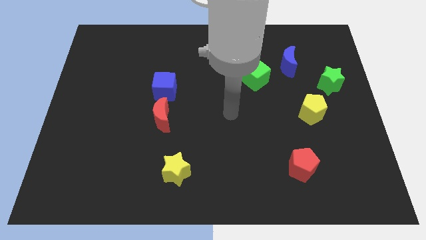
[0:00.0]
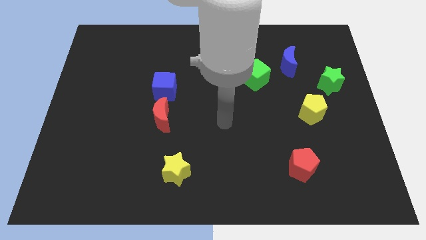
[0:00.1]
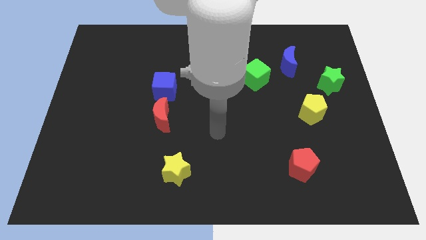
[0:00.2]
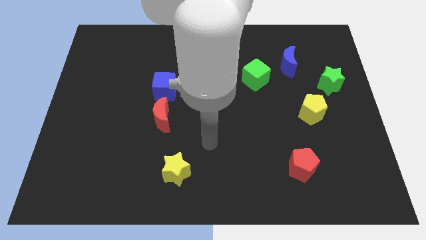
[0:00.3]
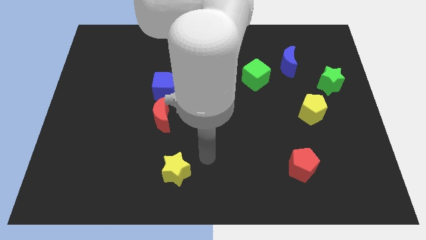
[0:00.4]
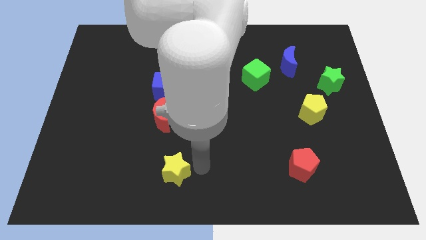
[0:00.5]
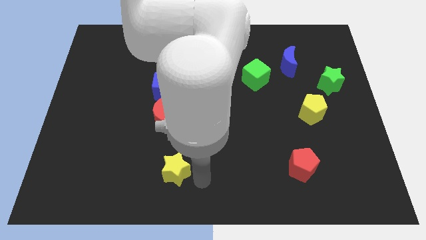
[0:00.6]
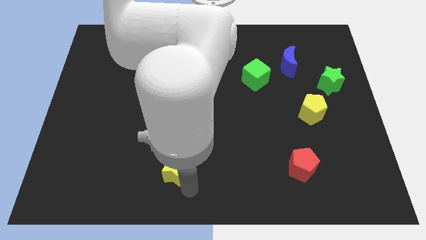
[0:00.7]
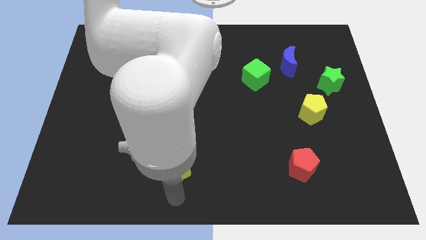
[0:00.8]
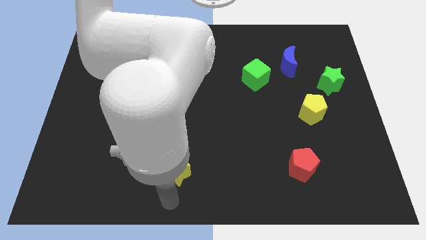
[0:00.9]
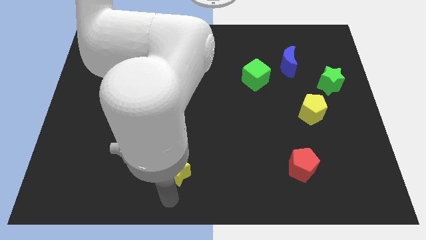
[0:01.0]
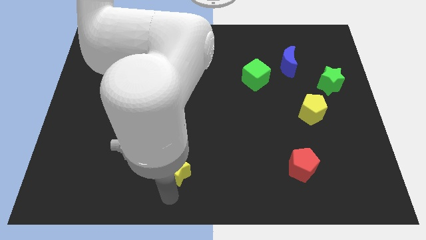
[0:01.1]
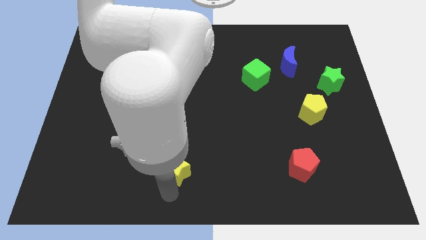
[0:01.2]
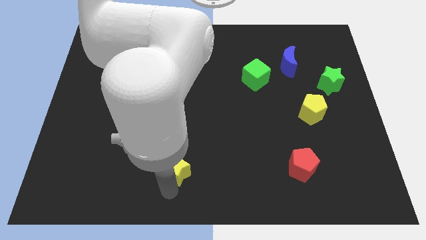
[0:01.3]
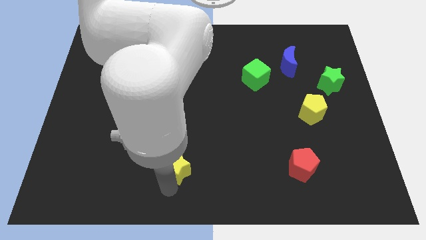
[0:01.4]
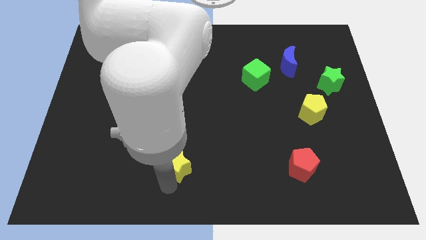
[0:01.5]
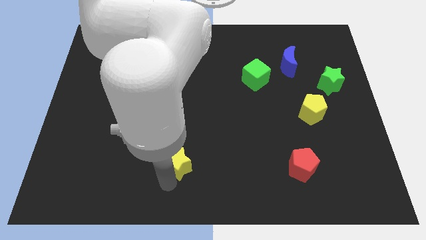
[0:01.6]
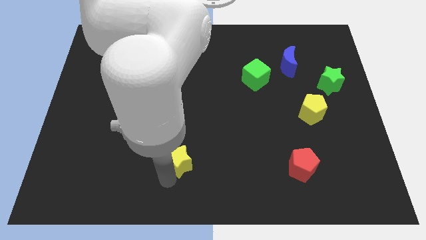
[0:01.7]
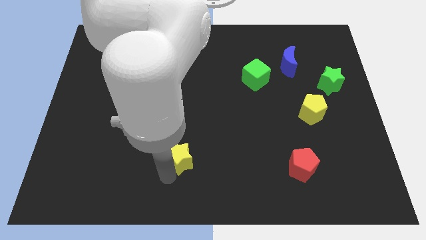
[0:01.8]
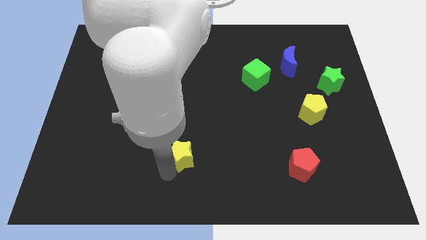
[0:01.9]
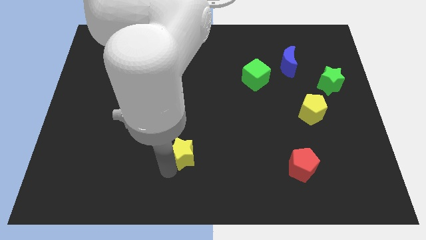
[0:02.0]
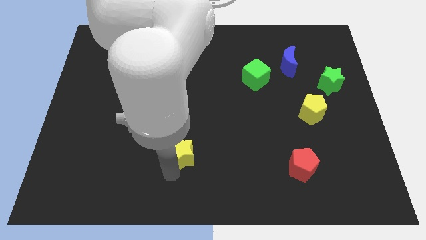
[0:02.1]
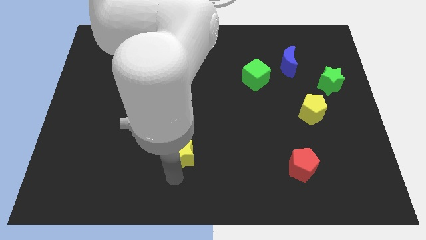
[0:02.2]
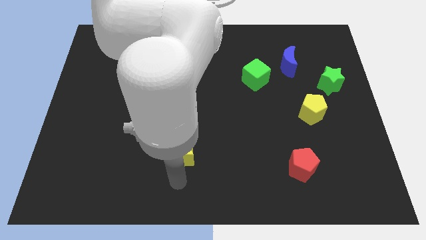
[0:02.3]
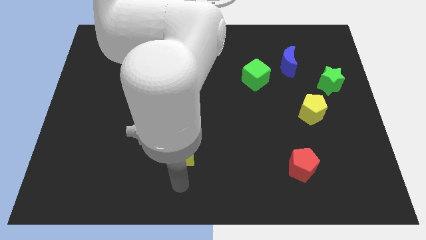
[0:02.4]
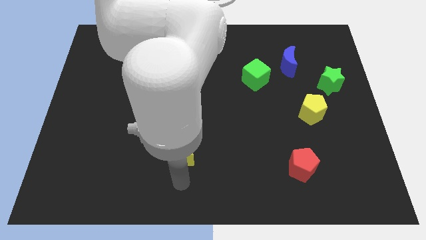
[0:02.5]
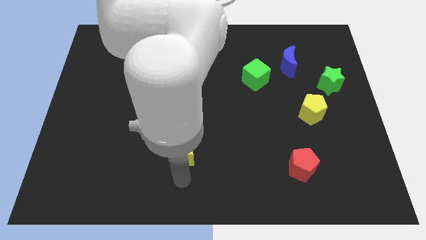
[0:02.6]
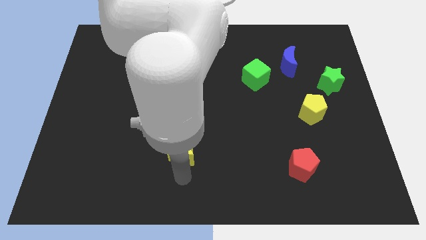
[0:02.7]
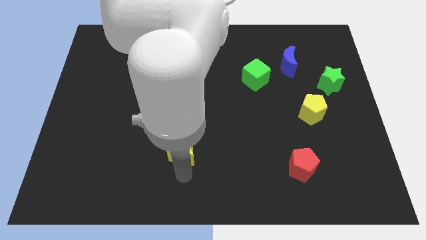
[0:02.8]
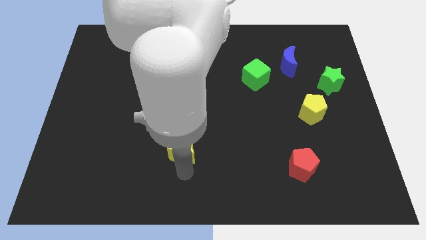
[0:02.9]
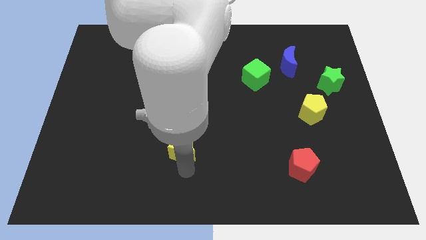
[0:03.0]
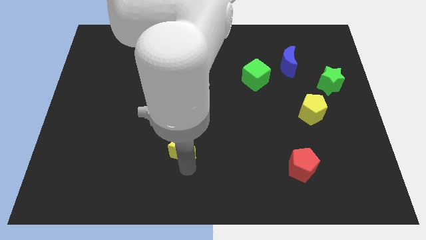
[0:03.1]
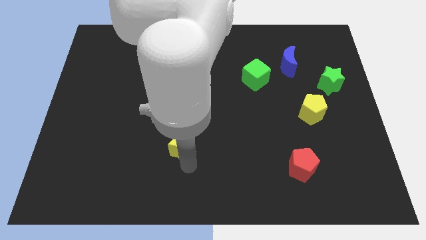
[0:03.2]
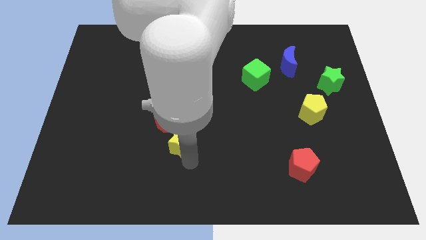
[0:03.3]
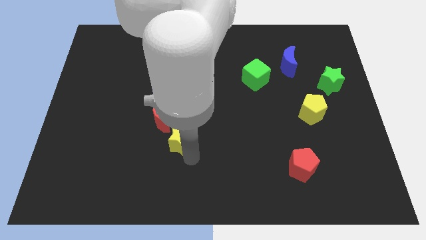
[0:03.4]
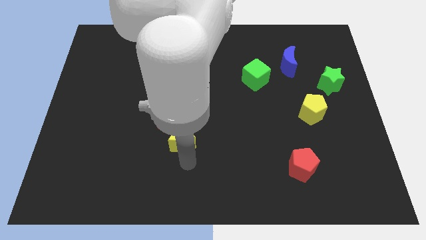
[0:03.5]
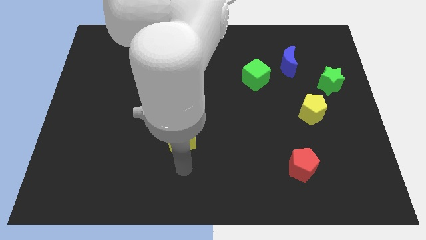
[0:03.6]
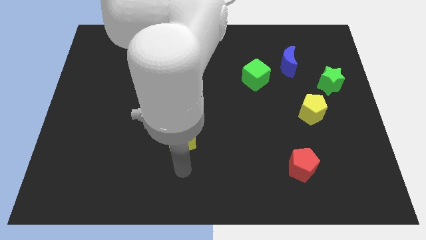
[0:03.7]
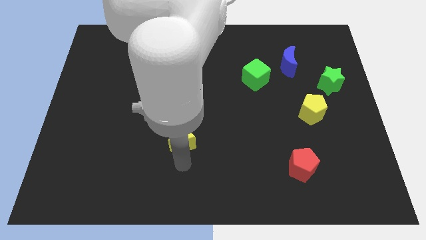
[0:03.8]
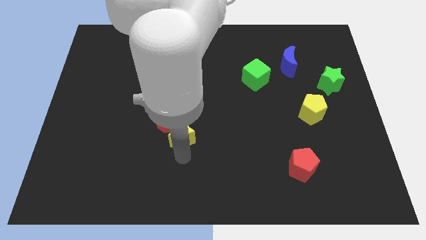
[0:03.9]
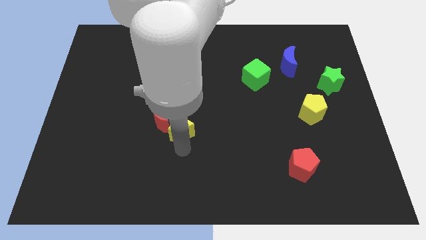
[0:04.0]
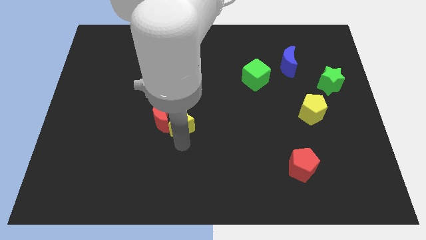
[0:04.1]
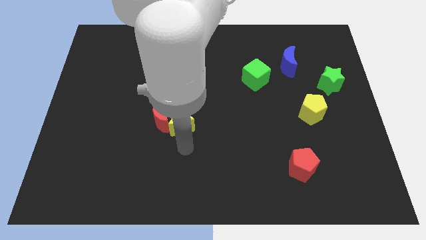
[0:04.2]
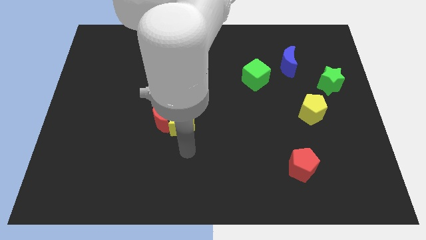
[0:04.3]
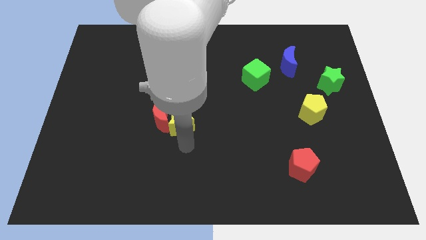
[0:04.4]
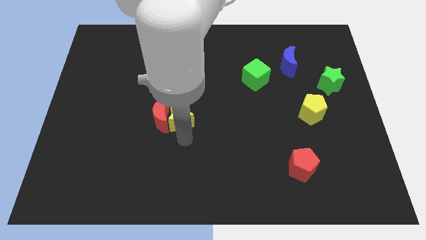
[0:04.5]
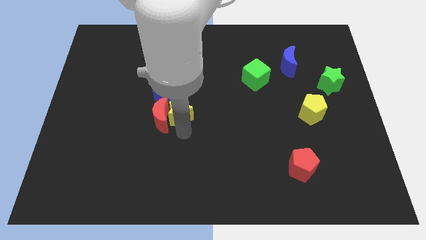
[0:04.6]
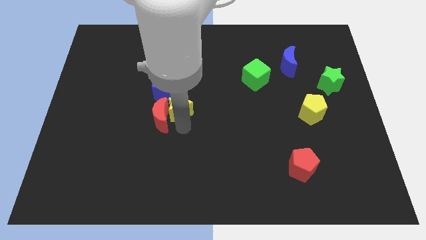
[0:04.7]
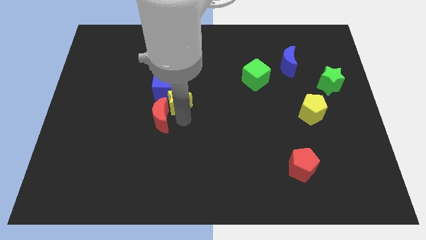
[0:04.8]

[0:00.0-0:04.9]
push the yellow star next to the blue cube

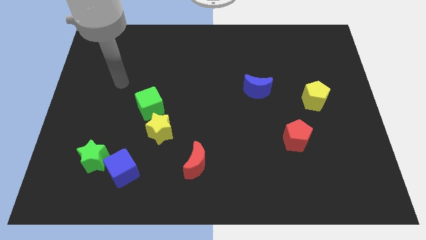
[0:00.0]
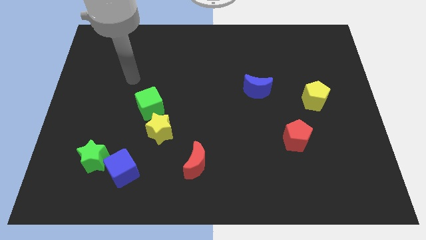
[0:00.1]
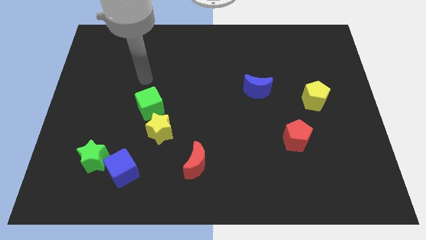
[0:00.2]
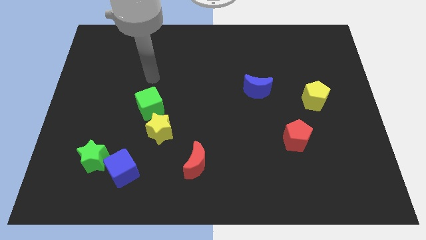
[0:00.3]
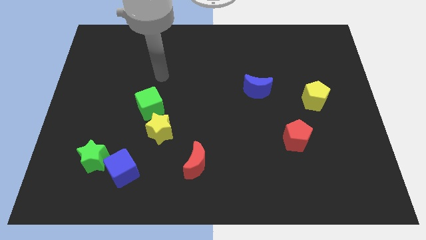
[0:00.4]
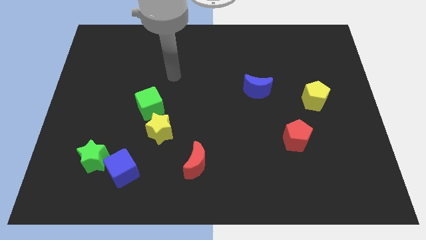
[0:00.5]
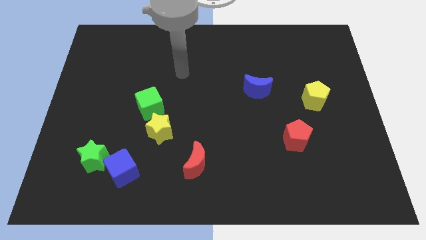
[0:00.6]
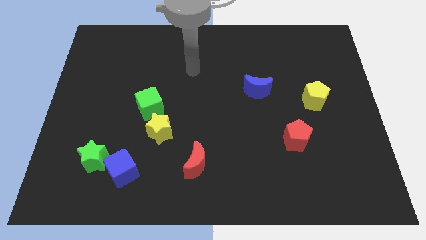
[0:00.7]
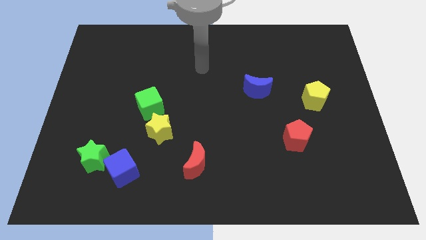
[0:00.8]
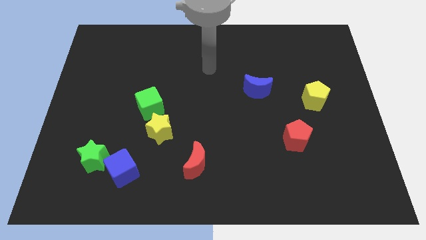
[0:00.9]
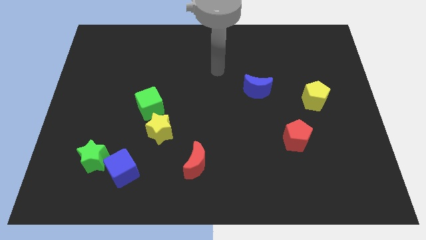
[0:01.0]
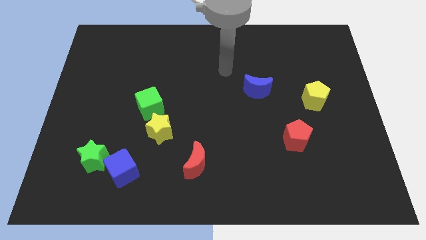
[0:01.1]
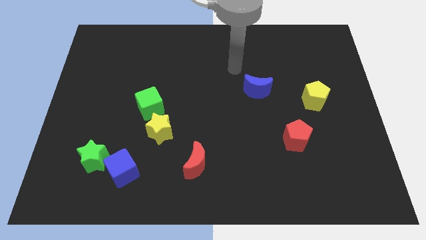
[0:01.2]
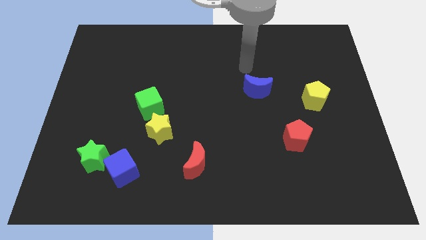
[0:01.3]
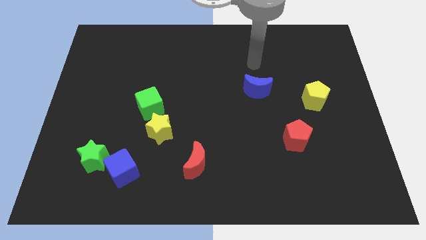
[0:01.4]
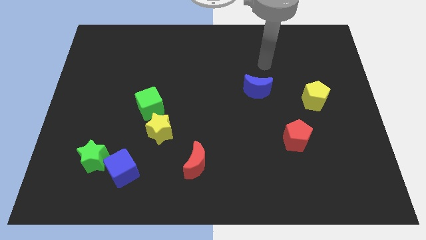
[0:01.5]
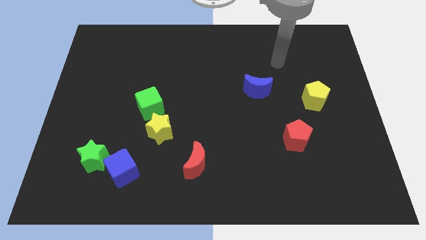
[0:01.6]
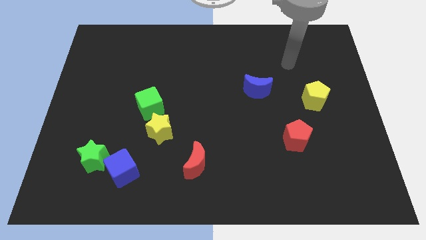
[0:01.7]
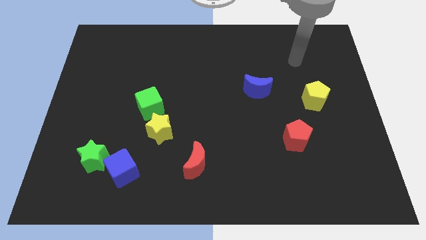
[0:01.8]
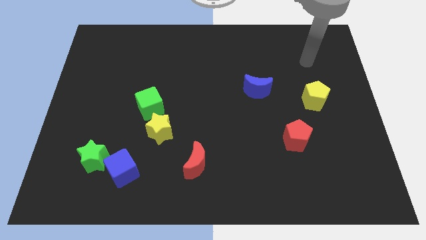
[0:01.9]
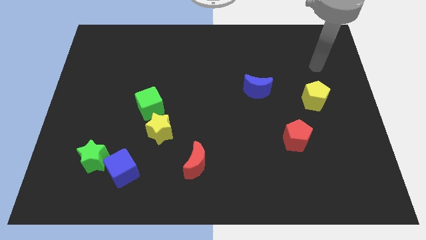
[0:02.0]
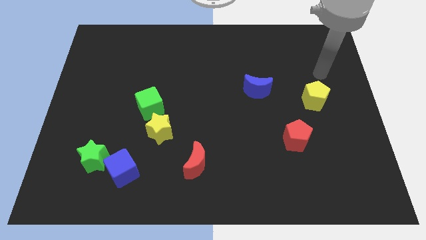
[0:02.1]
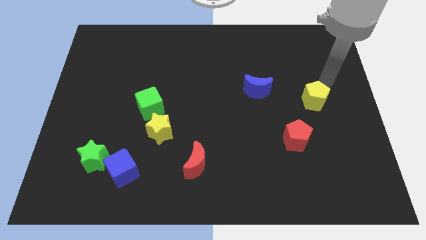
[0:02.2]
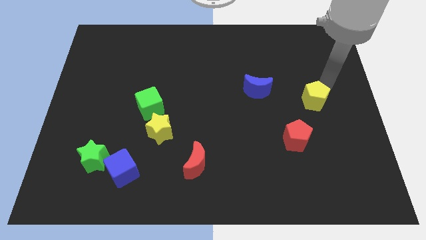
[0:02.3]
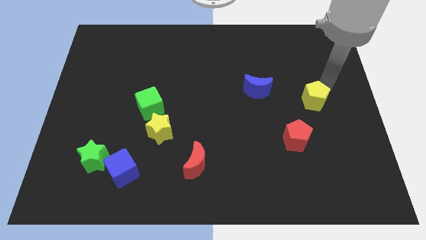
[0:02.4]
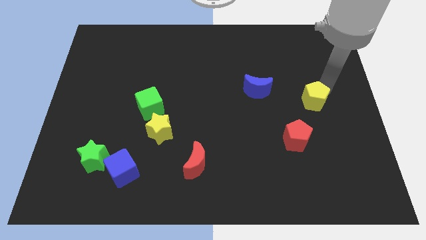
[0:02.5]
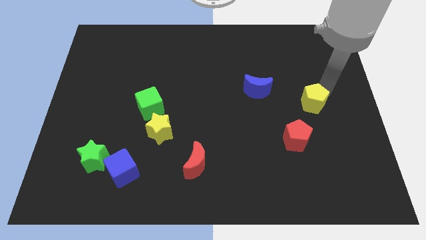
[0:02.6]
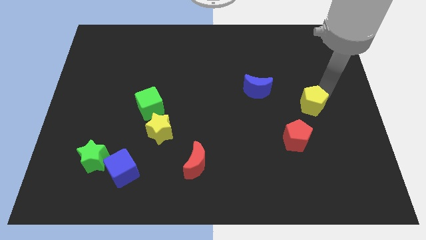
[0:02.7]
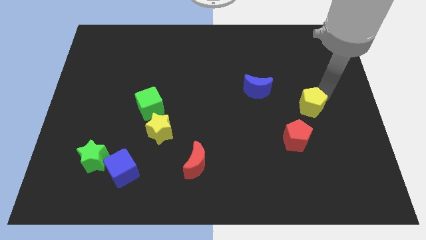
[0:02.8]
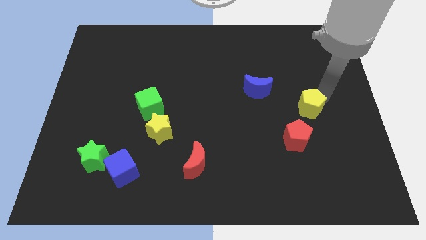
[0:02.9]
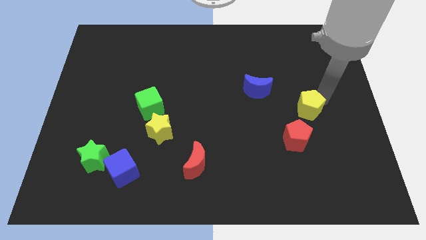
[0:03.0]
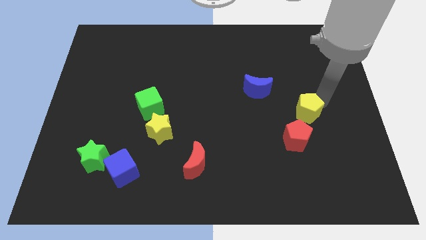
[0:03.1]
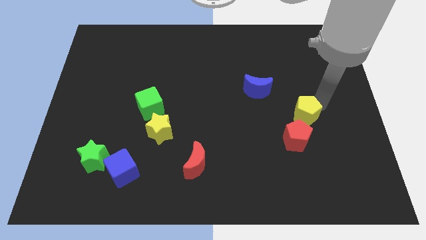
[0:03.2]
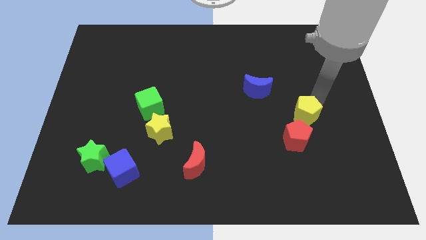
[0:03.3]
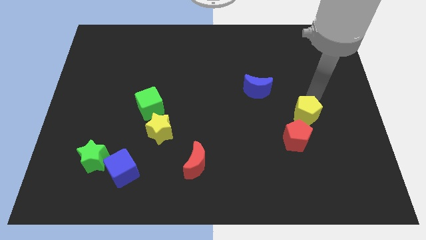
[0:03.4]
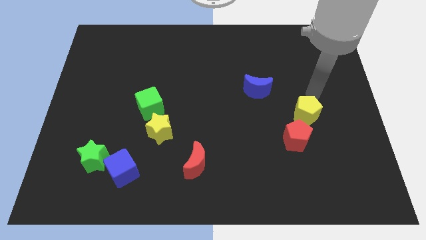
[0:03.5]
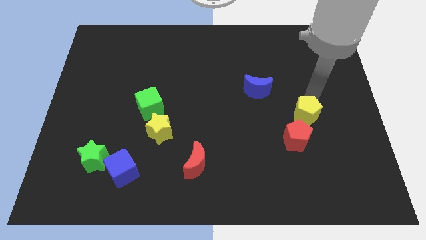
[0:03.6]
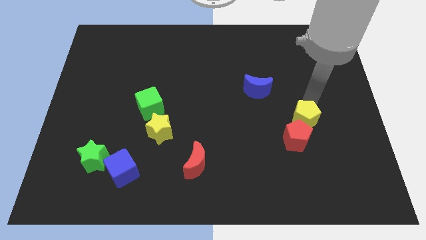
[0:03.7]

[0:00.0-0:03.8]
push the yellow pentagon close to the red pentagon
